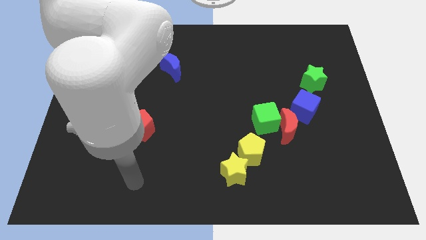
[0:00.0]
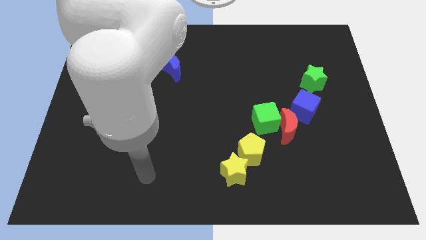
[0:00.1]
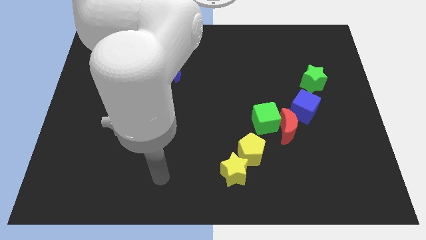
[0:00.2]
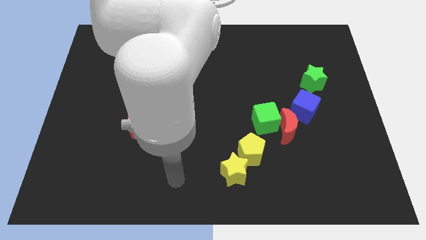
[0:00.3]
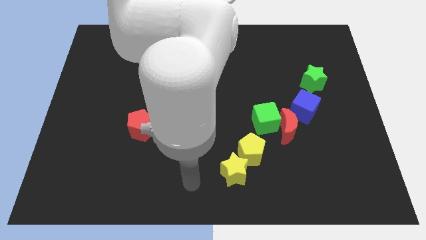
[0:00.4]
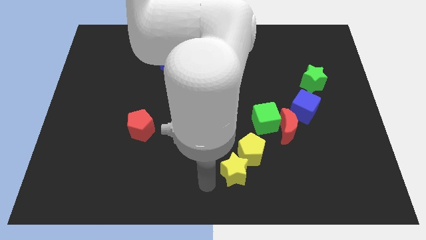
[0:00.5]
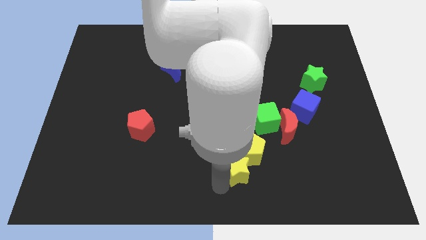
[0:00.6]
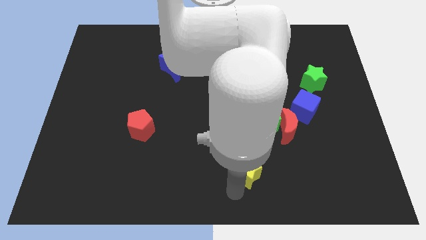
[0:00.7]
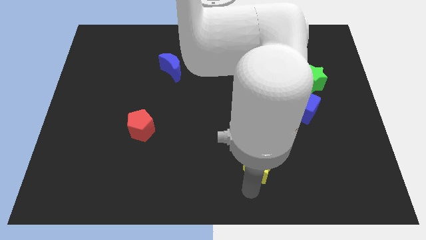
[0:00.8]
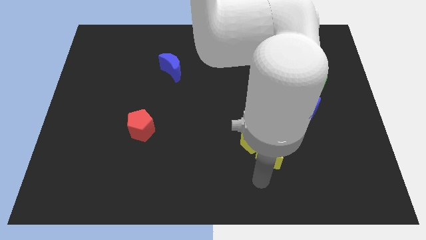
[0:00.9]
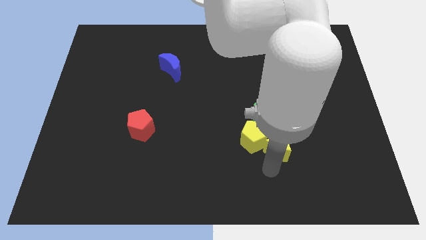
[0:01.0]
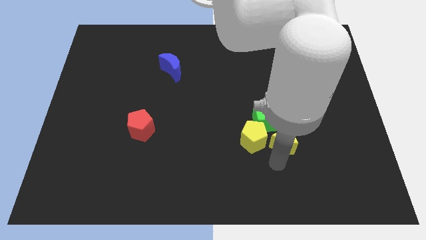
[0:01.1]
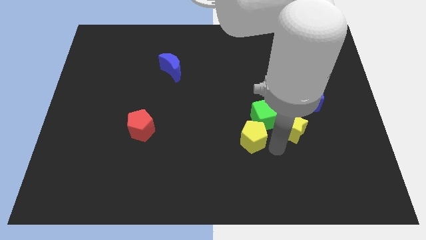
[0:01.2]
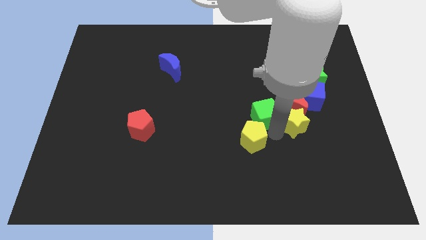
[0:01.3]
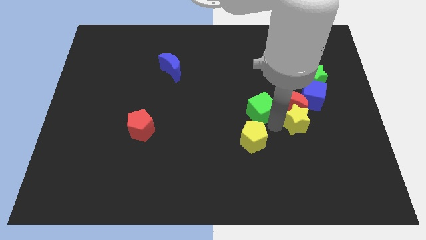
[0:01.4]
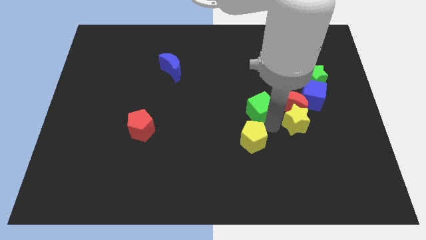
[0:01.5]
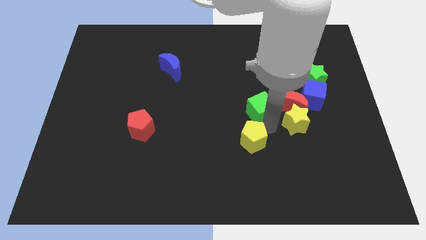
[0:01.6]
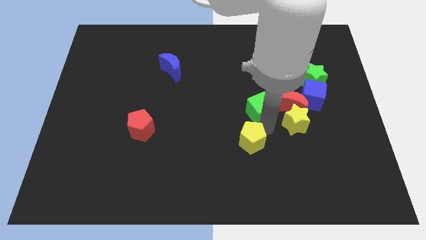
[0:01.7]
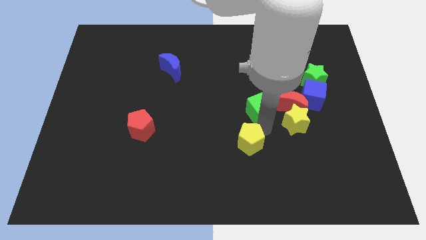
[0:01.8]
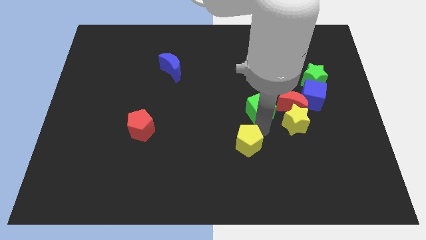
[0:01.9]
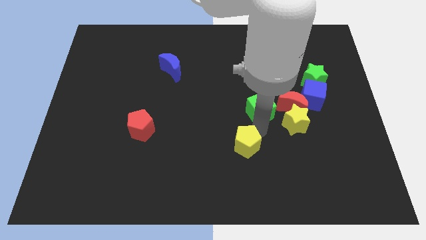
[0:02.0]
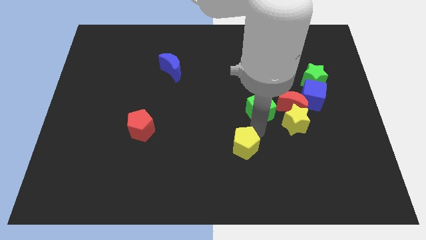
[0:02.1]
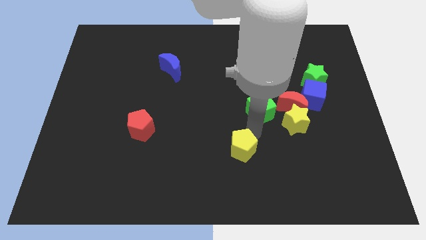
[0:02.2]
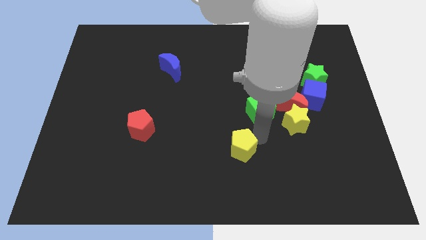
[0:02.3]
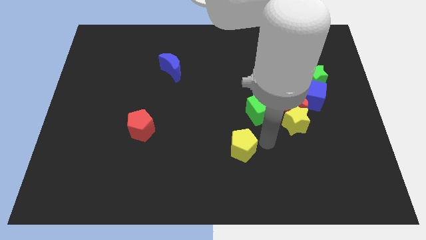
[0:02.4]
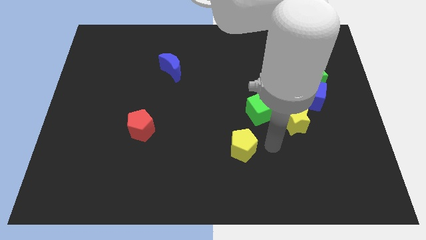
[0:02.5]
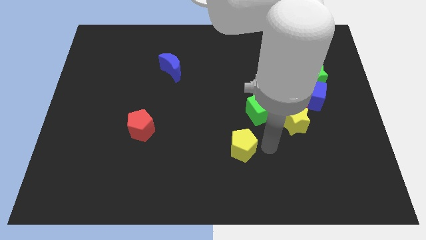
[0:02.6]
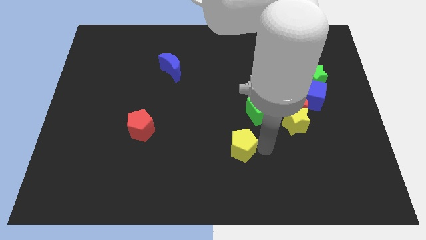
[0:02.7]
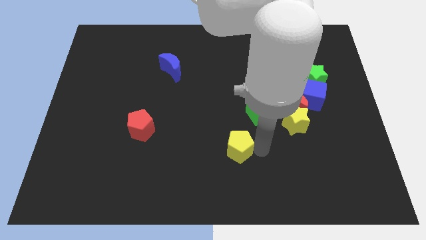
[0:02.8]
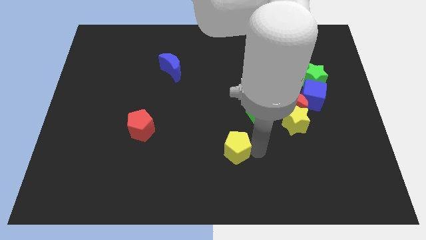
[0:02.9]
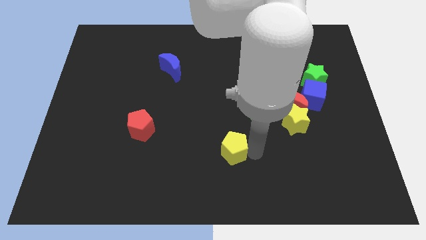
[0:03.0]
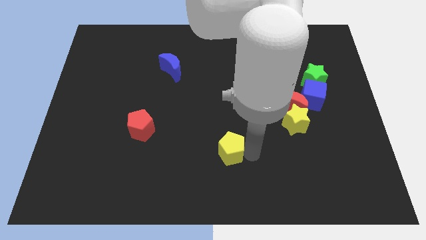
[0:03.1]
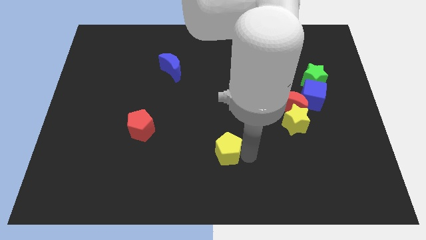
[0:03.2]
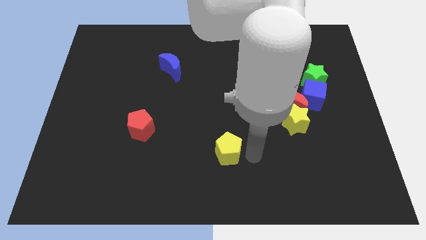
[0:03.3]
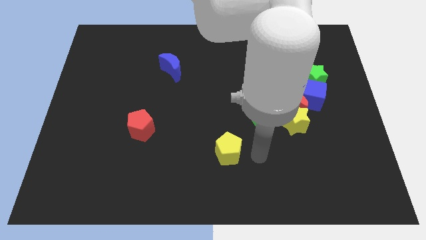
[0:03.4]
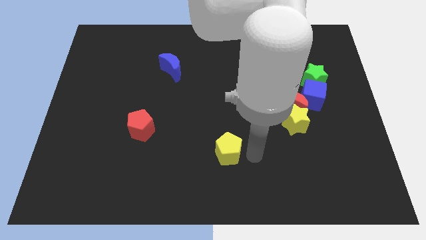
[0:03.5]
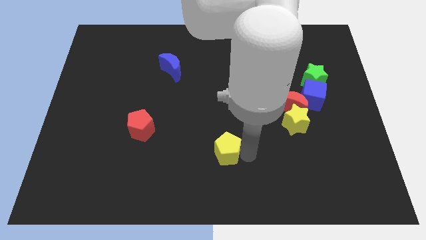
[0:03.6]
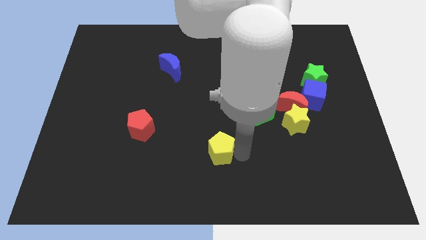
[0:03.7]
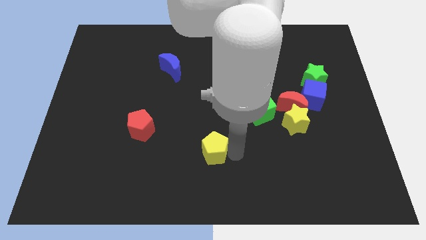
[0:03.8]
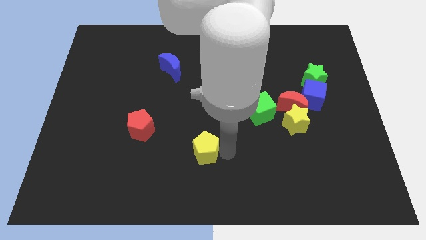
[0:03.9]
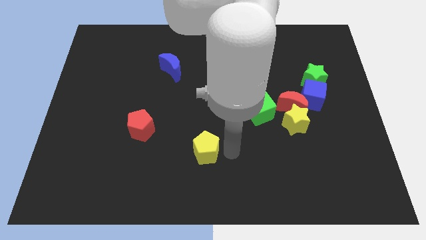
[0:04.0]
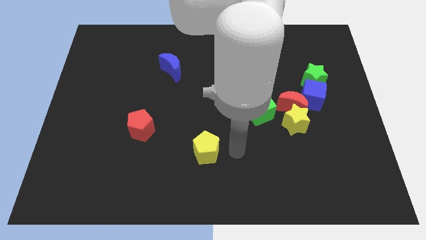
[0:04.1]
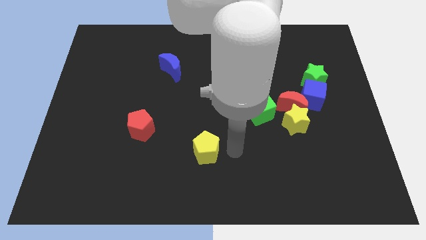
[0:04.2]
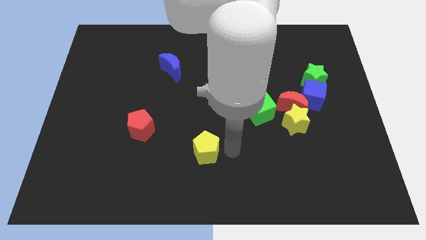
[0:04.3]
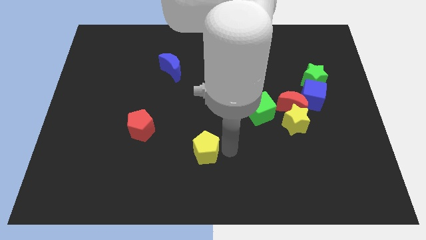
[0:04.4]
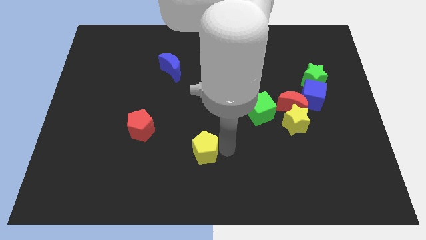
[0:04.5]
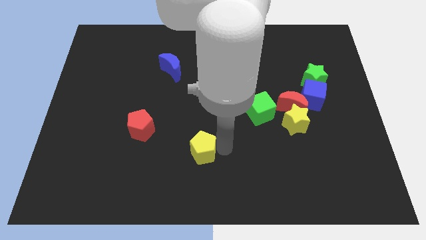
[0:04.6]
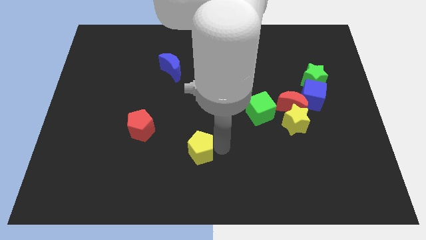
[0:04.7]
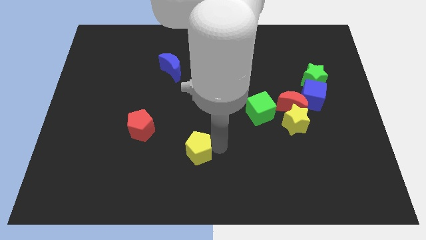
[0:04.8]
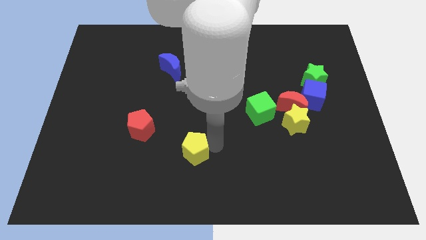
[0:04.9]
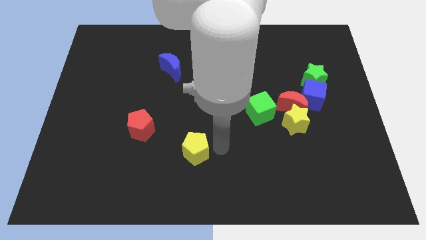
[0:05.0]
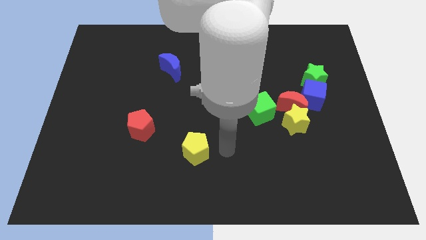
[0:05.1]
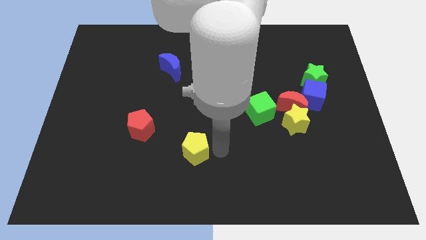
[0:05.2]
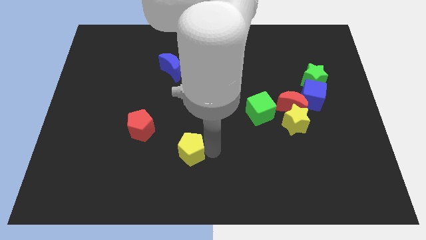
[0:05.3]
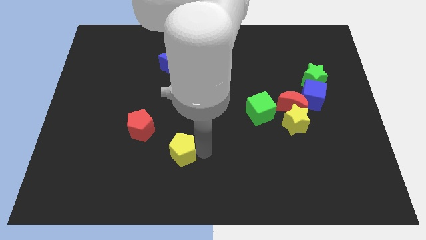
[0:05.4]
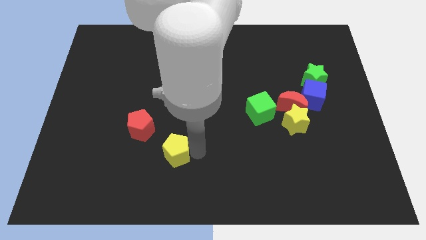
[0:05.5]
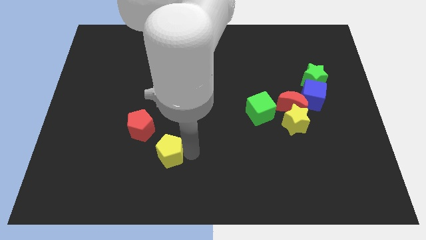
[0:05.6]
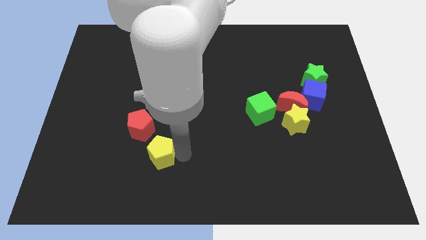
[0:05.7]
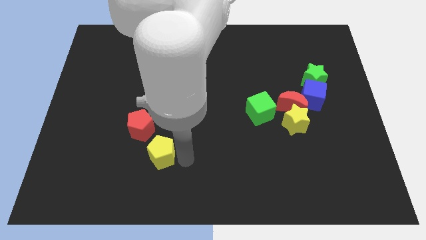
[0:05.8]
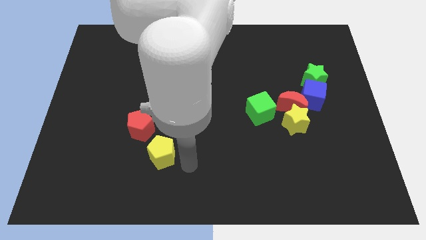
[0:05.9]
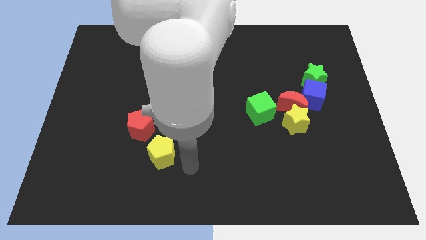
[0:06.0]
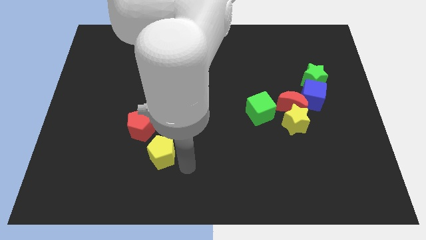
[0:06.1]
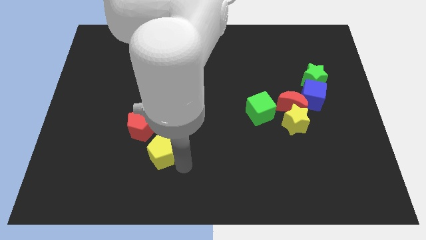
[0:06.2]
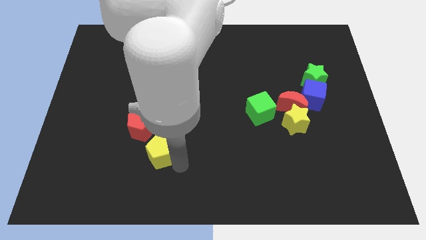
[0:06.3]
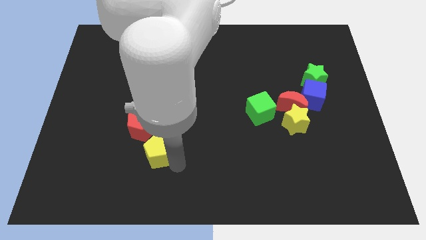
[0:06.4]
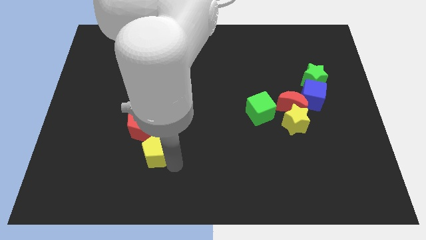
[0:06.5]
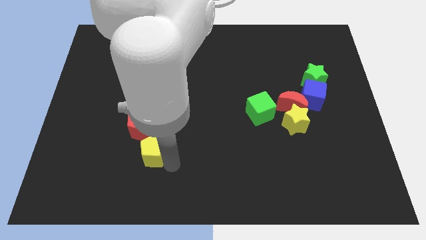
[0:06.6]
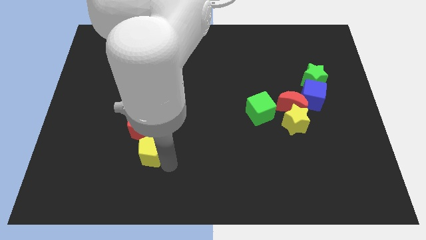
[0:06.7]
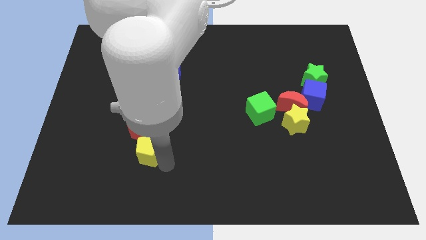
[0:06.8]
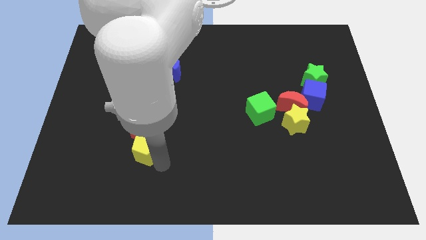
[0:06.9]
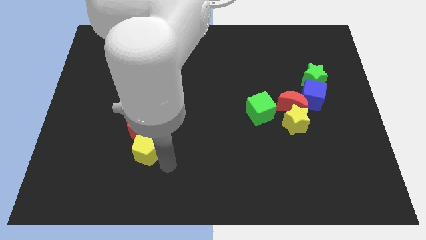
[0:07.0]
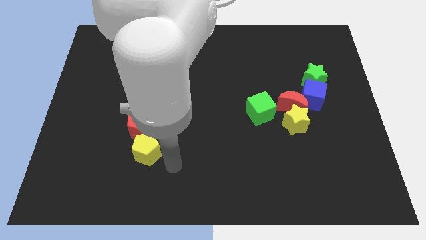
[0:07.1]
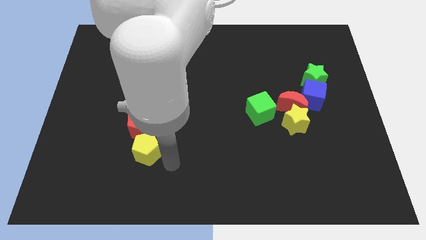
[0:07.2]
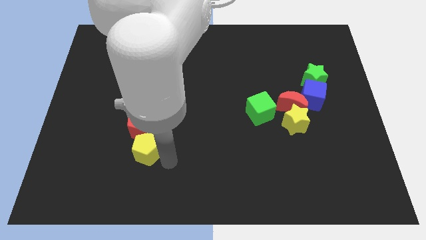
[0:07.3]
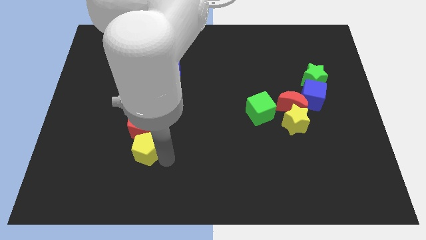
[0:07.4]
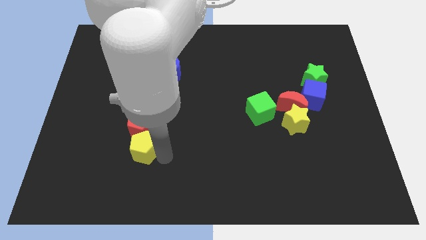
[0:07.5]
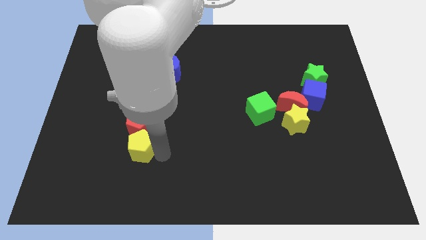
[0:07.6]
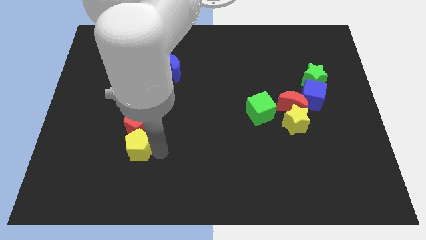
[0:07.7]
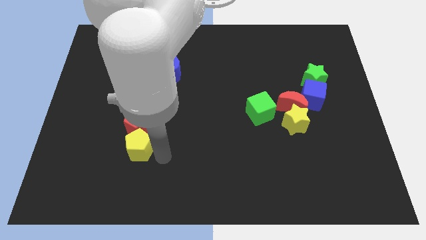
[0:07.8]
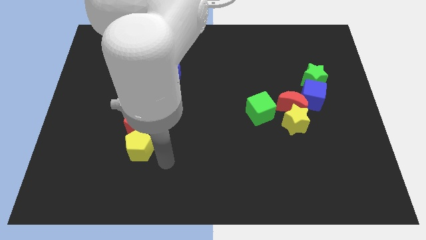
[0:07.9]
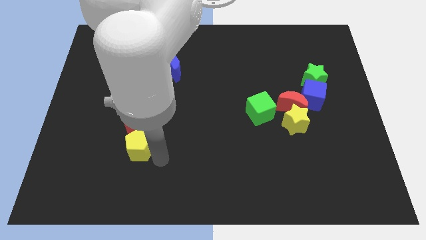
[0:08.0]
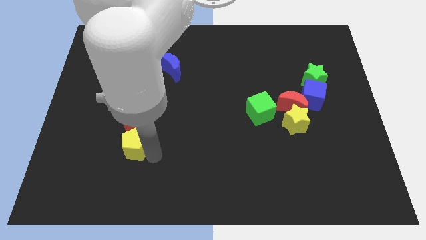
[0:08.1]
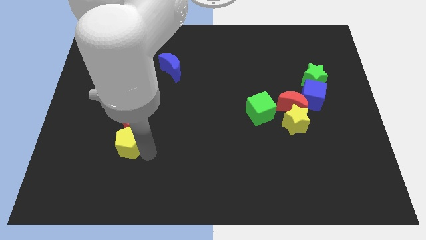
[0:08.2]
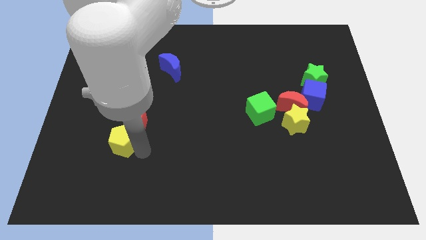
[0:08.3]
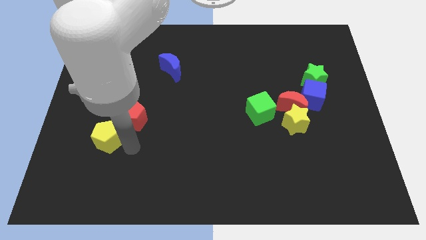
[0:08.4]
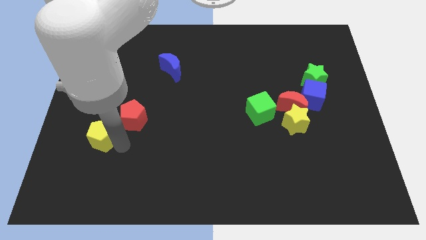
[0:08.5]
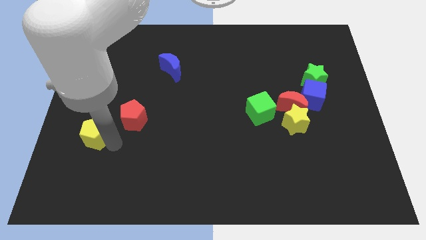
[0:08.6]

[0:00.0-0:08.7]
put the yellow pentagon to the left of the red pentagon
